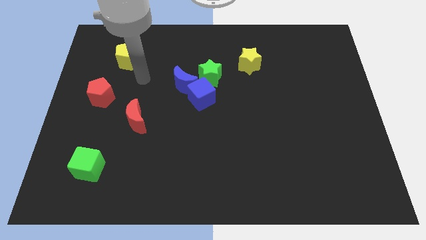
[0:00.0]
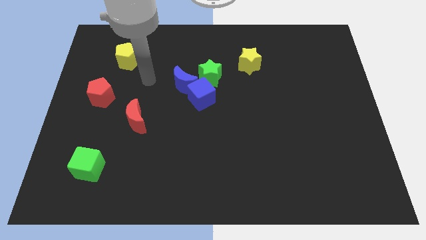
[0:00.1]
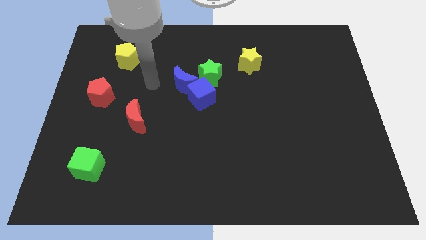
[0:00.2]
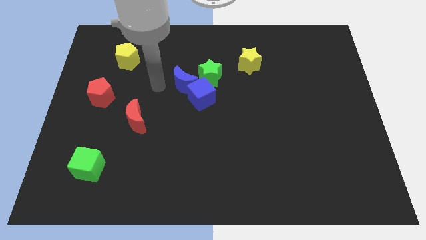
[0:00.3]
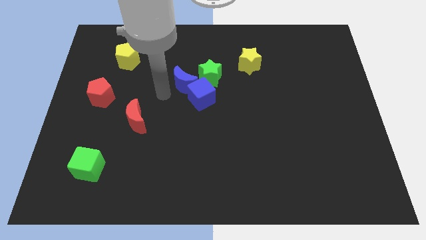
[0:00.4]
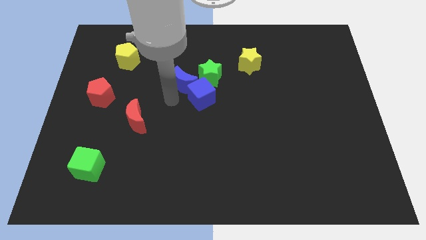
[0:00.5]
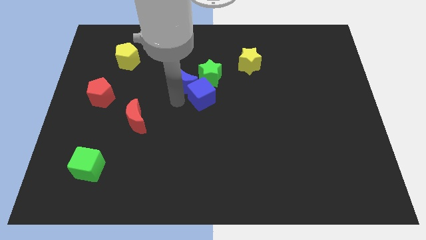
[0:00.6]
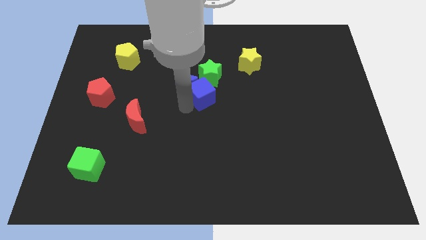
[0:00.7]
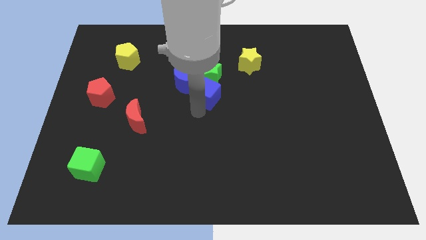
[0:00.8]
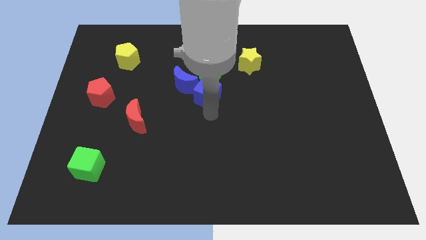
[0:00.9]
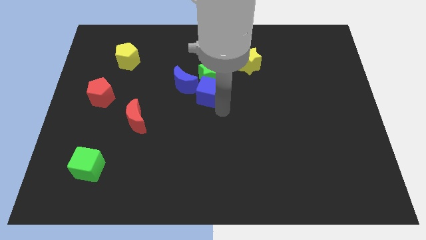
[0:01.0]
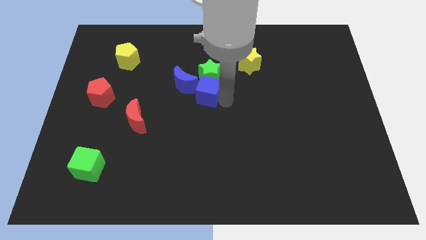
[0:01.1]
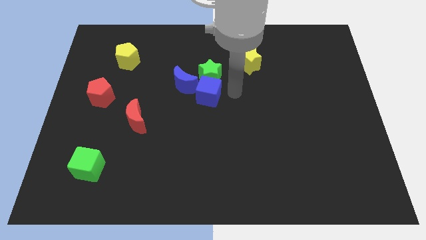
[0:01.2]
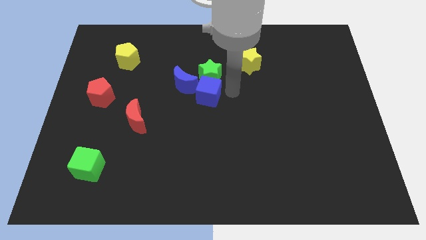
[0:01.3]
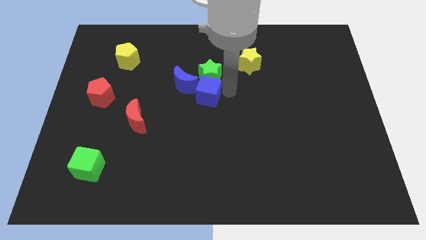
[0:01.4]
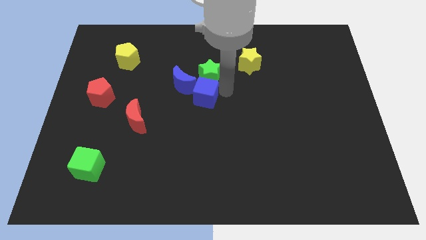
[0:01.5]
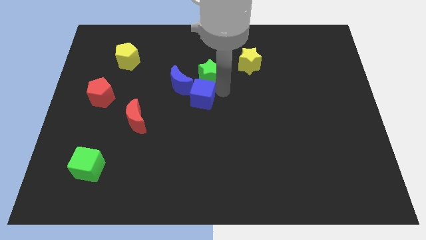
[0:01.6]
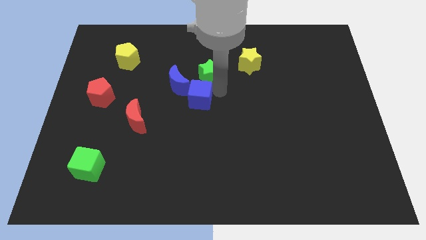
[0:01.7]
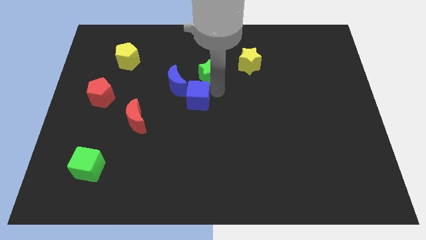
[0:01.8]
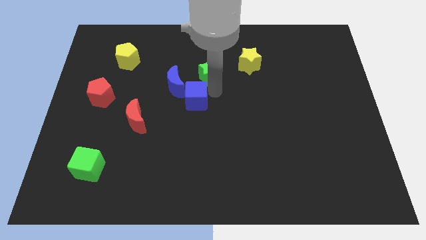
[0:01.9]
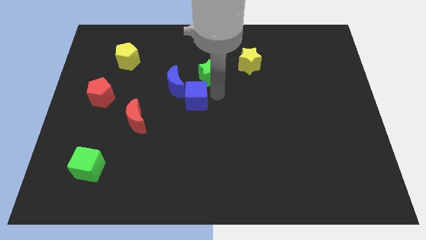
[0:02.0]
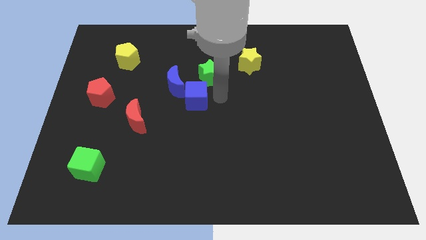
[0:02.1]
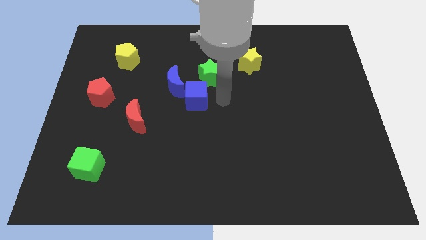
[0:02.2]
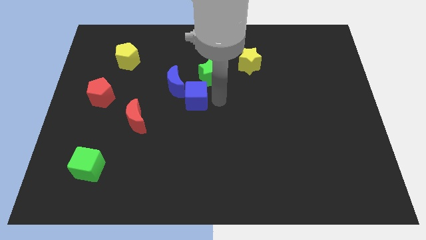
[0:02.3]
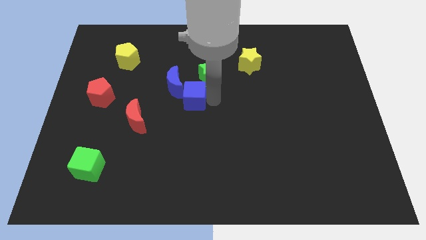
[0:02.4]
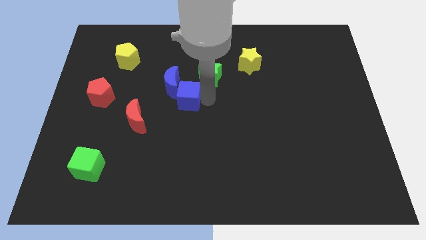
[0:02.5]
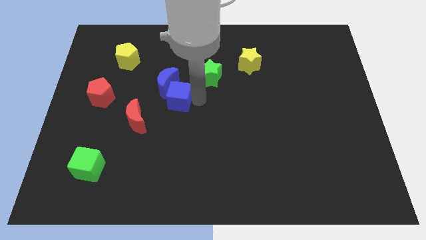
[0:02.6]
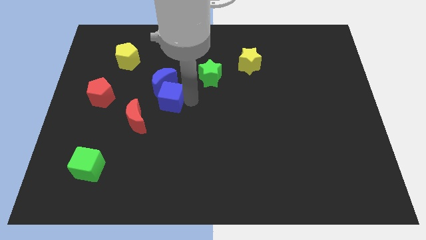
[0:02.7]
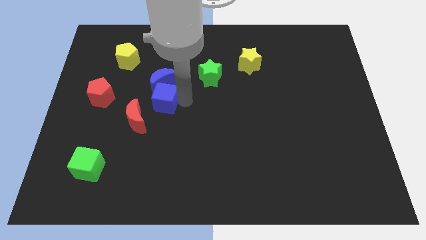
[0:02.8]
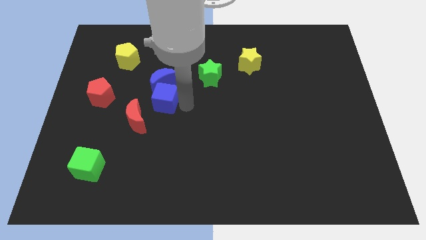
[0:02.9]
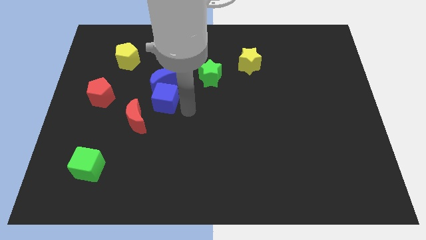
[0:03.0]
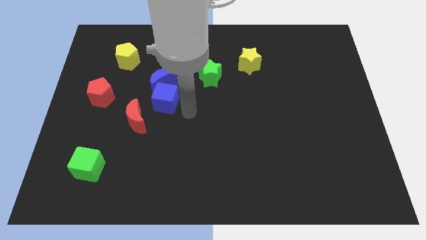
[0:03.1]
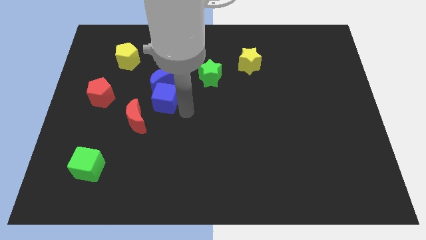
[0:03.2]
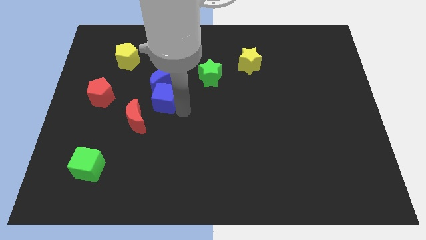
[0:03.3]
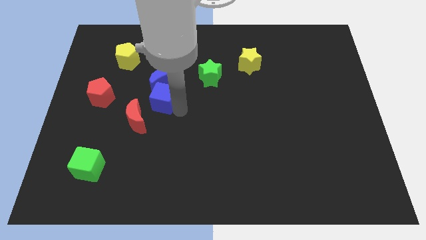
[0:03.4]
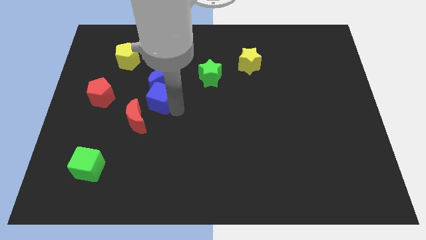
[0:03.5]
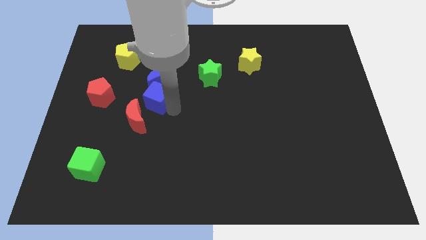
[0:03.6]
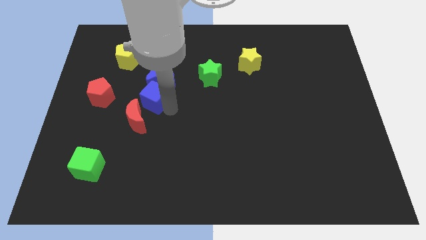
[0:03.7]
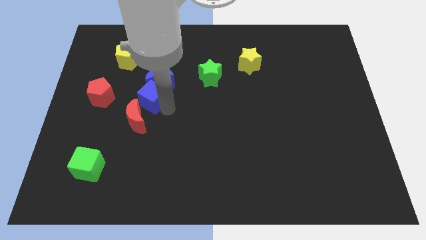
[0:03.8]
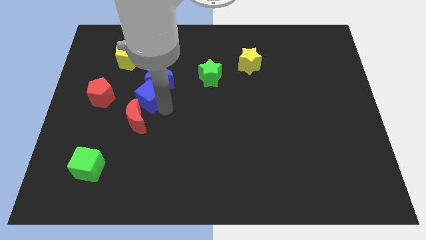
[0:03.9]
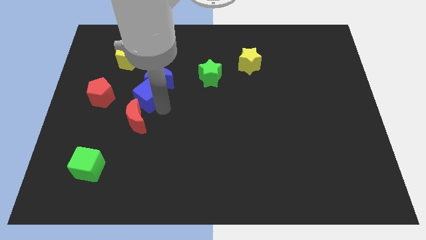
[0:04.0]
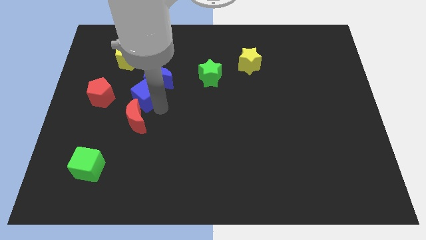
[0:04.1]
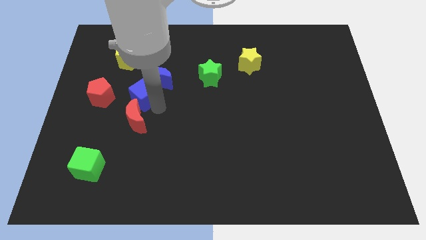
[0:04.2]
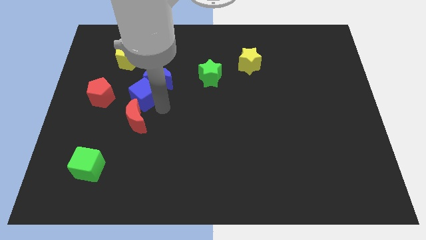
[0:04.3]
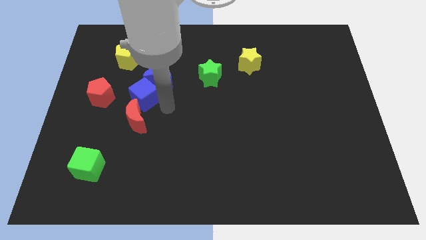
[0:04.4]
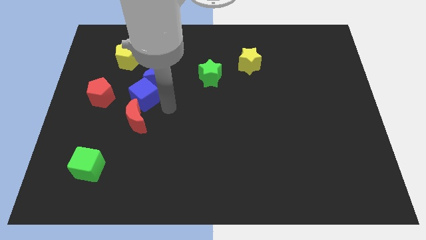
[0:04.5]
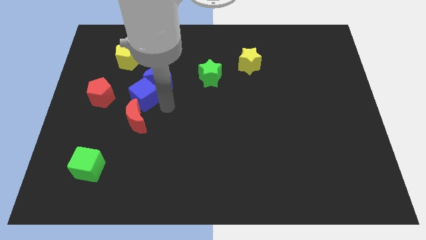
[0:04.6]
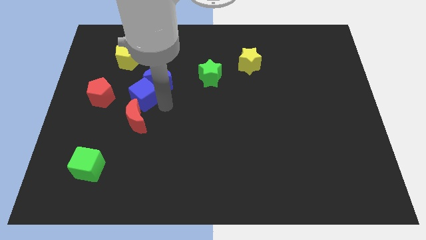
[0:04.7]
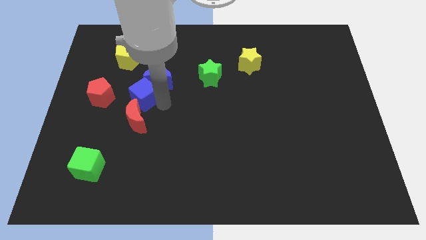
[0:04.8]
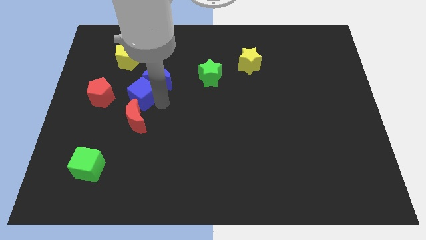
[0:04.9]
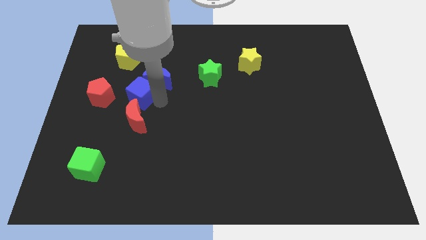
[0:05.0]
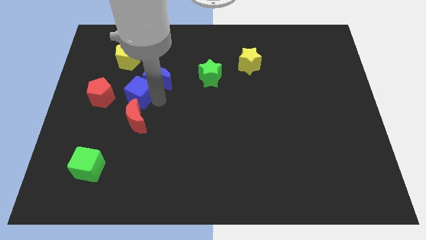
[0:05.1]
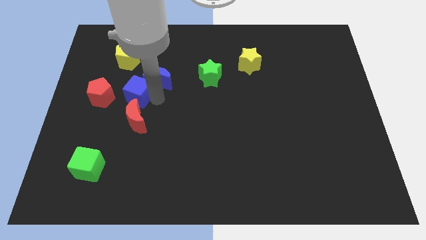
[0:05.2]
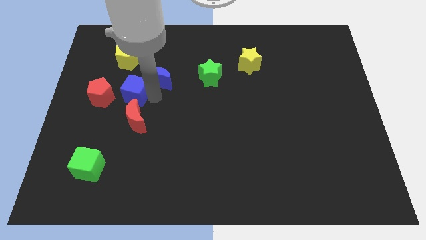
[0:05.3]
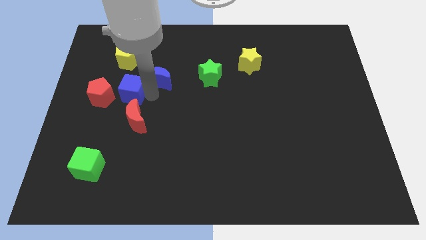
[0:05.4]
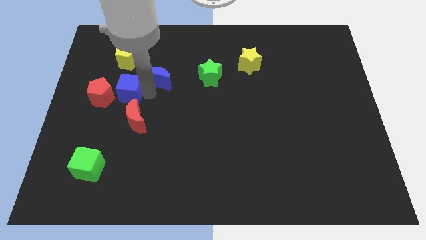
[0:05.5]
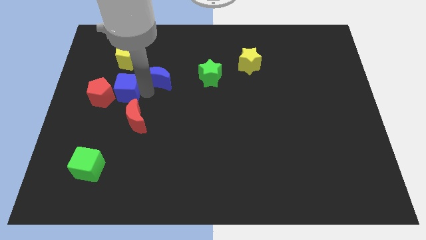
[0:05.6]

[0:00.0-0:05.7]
slide the blue cube next to the red pentagon

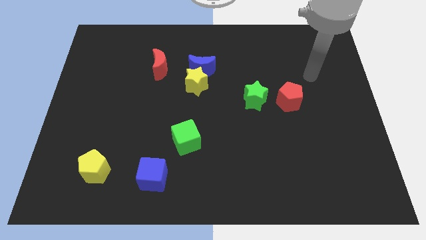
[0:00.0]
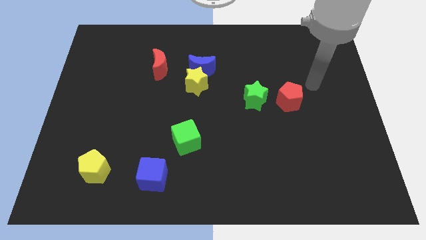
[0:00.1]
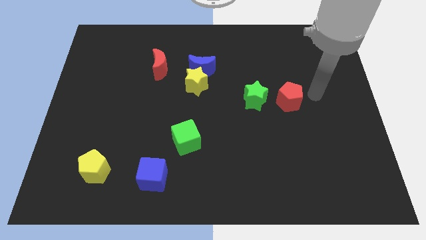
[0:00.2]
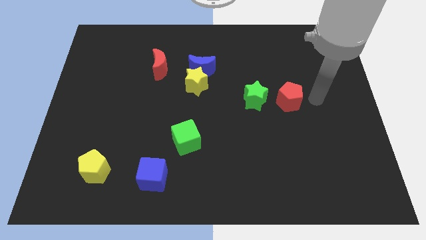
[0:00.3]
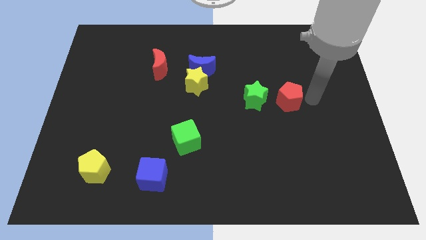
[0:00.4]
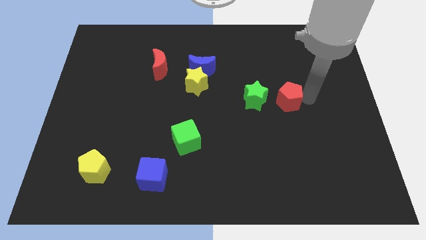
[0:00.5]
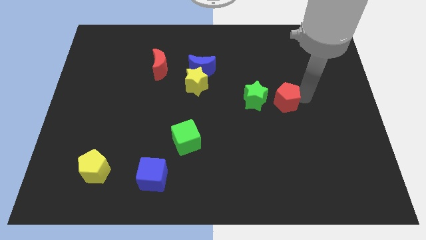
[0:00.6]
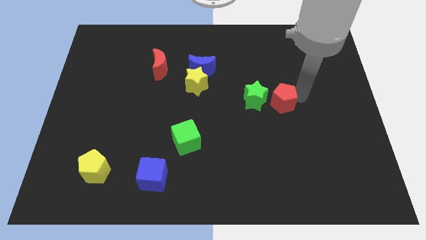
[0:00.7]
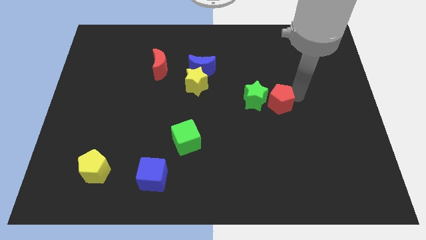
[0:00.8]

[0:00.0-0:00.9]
put the red pentagon next to the green star

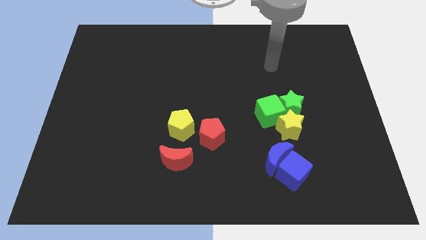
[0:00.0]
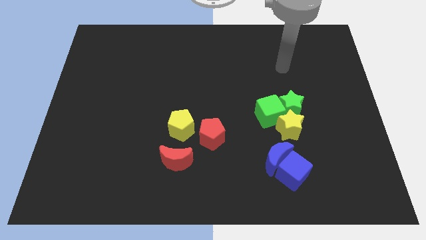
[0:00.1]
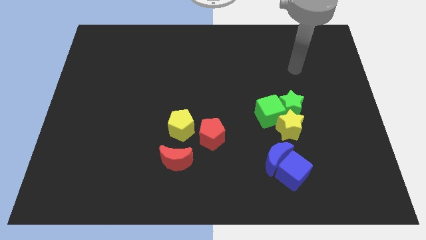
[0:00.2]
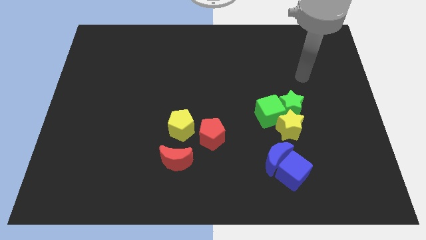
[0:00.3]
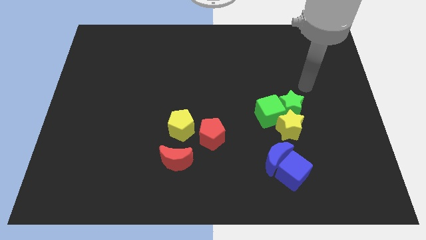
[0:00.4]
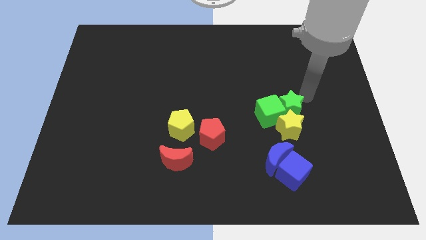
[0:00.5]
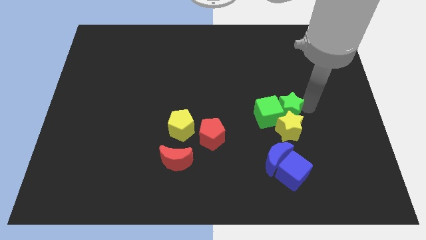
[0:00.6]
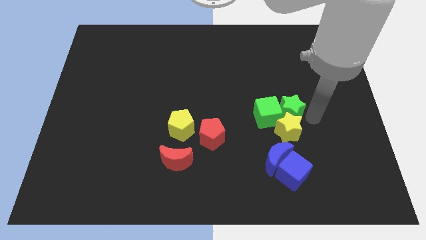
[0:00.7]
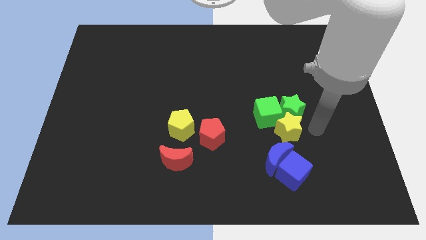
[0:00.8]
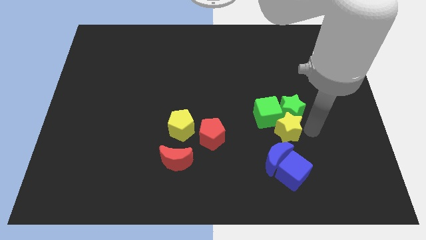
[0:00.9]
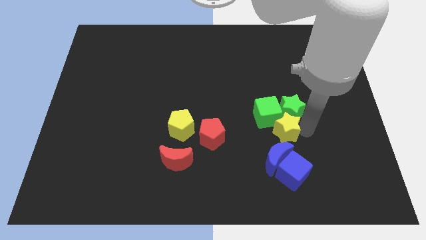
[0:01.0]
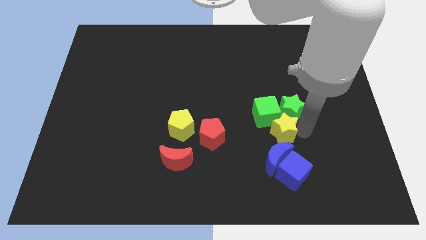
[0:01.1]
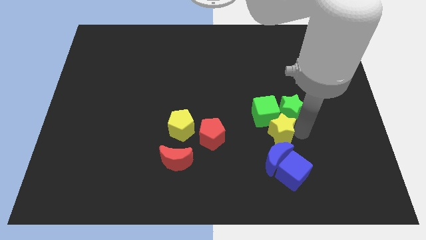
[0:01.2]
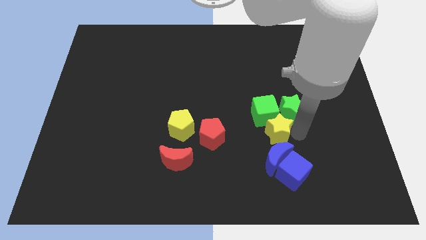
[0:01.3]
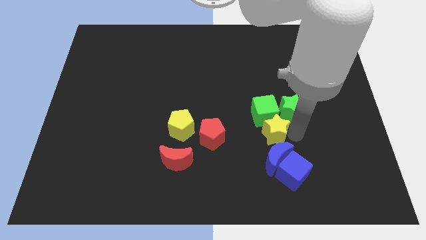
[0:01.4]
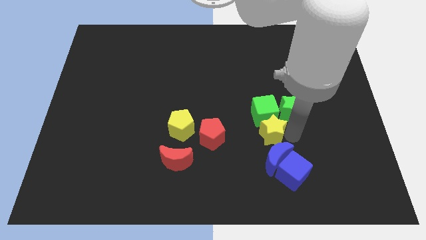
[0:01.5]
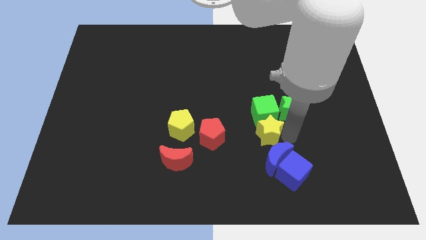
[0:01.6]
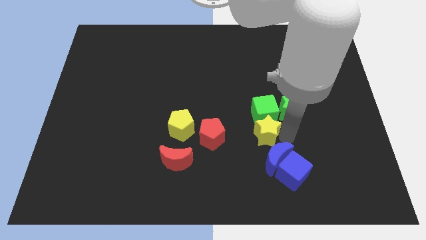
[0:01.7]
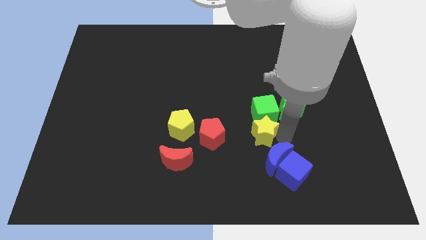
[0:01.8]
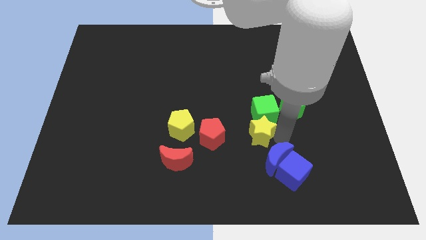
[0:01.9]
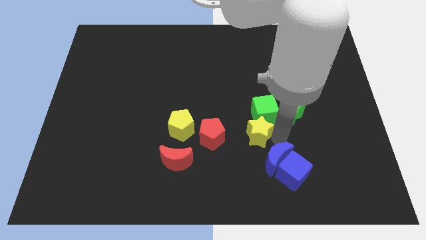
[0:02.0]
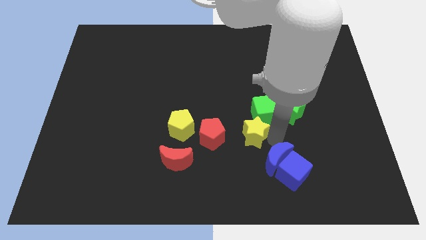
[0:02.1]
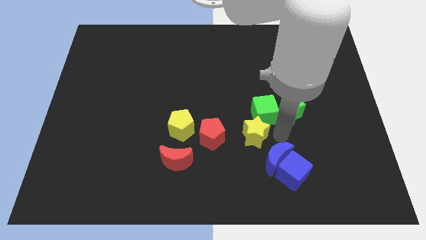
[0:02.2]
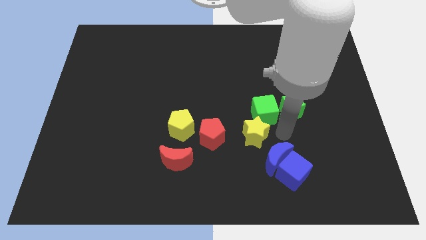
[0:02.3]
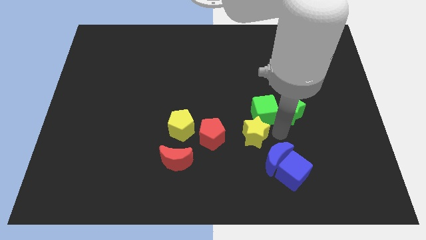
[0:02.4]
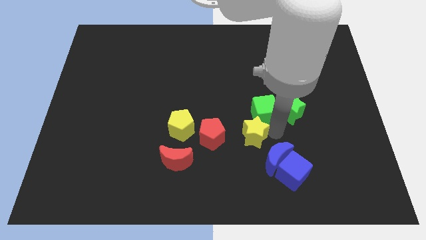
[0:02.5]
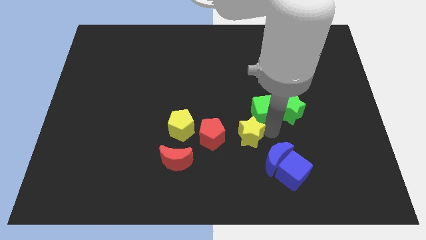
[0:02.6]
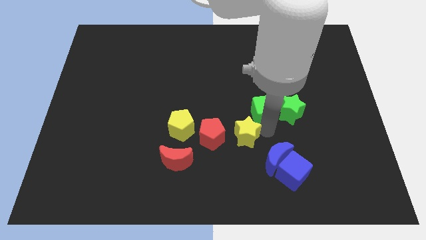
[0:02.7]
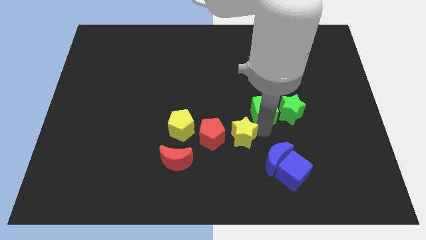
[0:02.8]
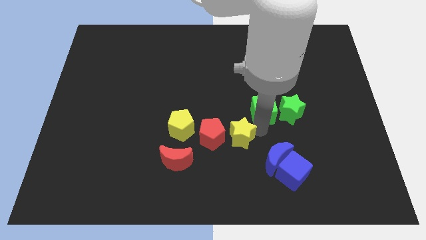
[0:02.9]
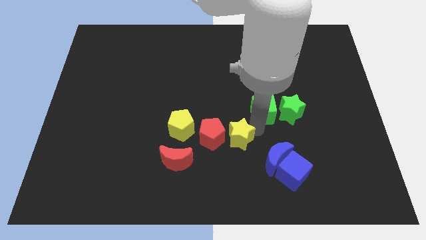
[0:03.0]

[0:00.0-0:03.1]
push the yellow star to the red pentagon
